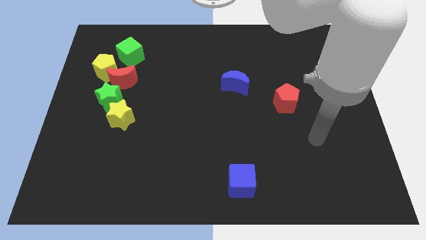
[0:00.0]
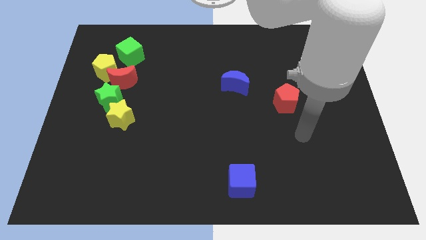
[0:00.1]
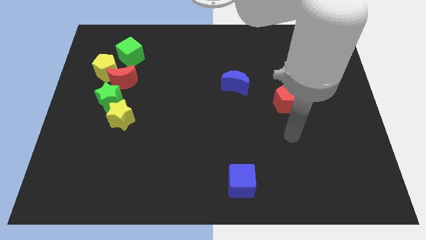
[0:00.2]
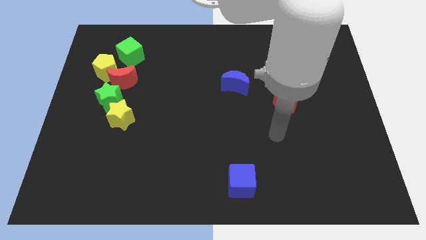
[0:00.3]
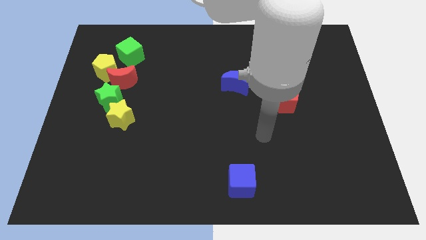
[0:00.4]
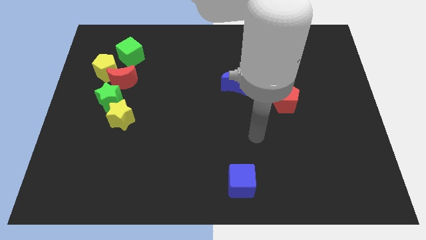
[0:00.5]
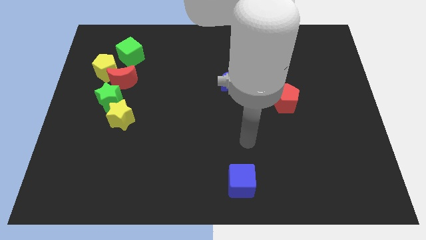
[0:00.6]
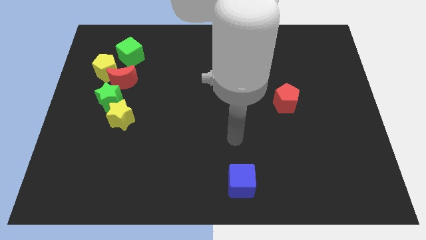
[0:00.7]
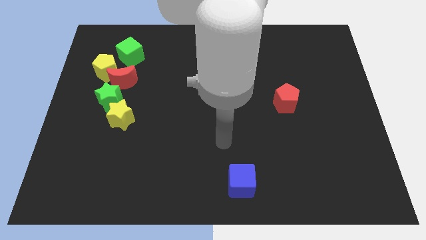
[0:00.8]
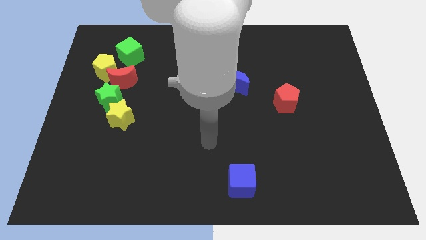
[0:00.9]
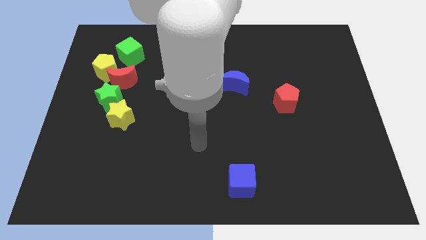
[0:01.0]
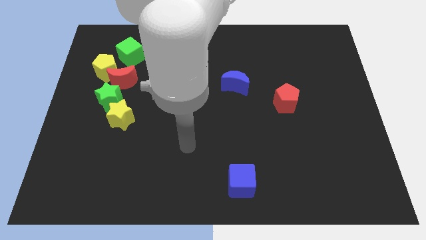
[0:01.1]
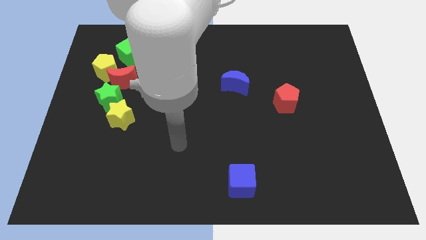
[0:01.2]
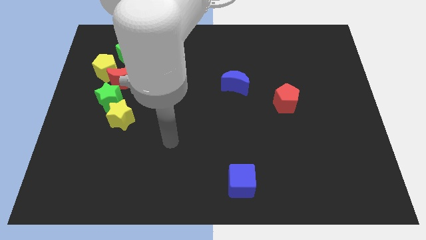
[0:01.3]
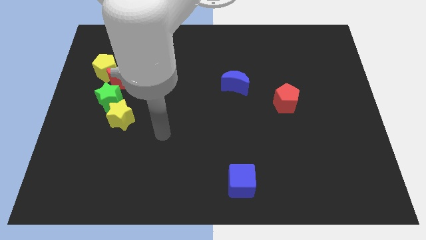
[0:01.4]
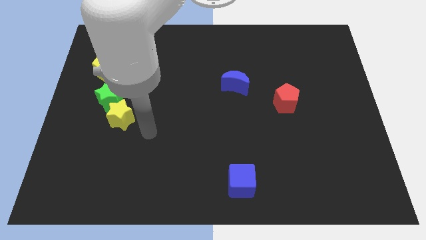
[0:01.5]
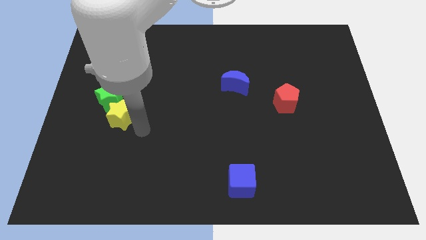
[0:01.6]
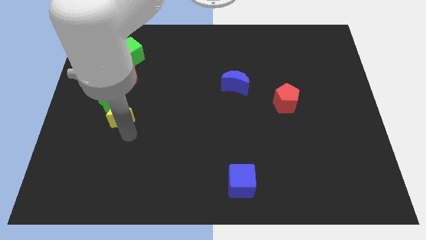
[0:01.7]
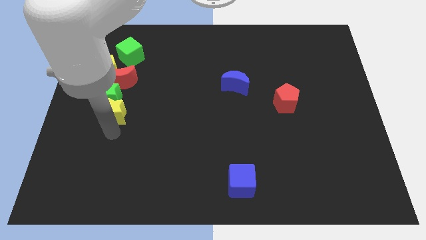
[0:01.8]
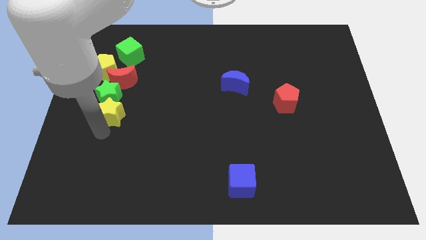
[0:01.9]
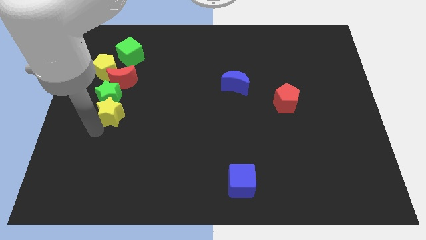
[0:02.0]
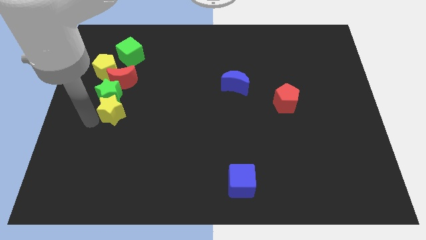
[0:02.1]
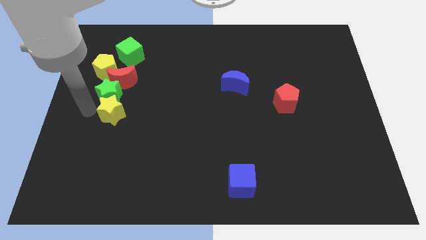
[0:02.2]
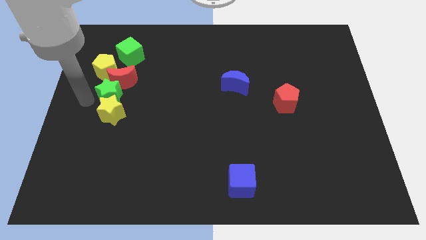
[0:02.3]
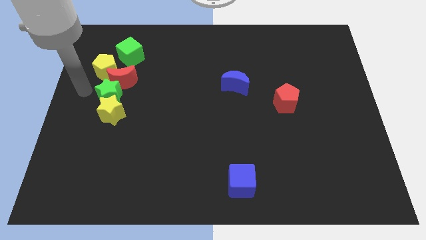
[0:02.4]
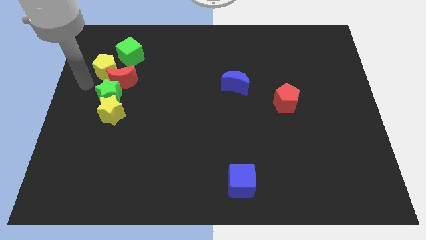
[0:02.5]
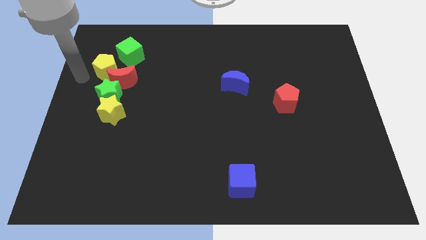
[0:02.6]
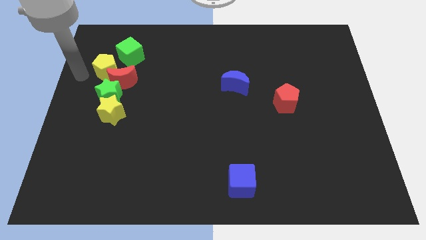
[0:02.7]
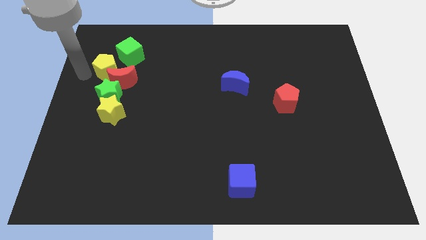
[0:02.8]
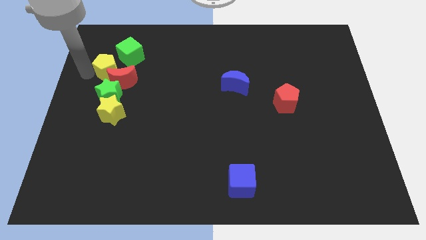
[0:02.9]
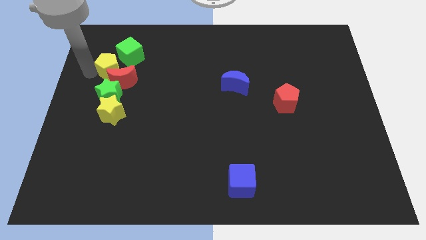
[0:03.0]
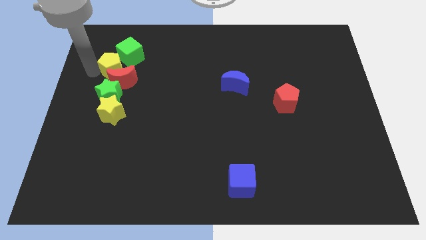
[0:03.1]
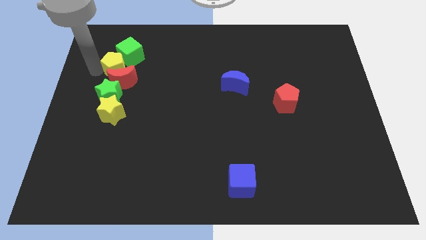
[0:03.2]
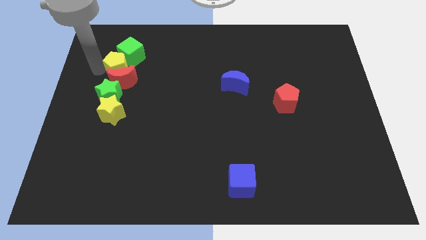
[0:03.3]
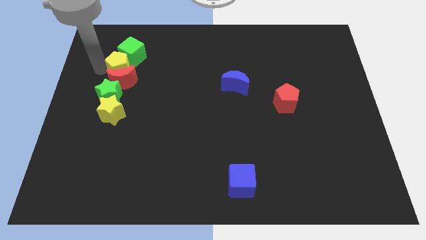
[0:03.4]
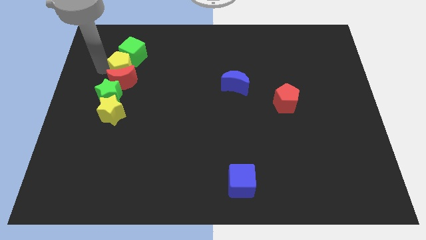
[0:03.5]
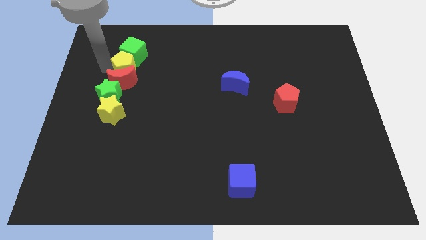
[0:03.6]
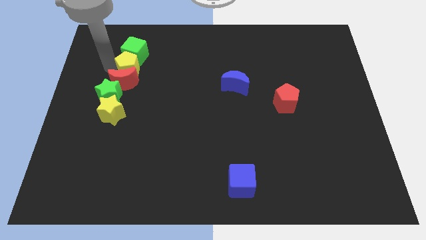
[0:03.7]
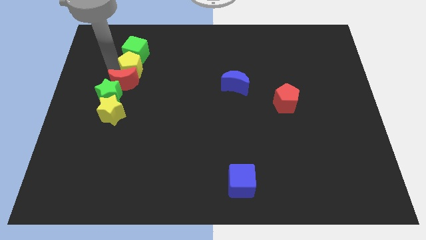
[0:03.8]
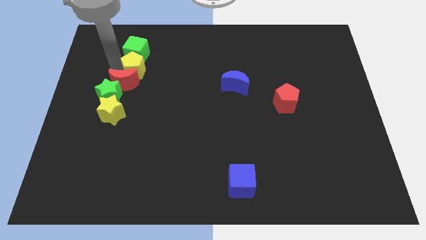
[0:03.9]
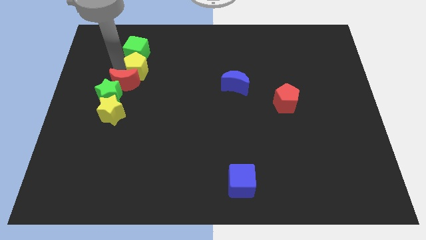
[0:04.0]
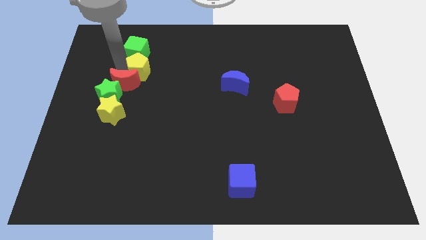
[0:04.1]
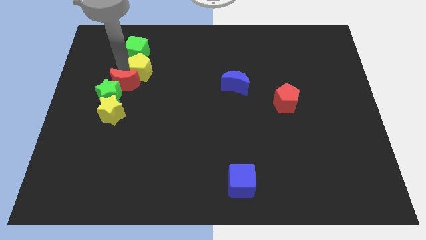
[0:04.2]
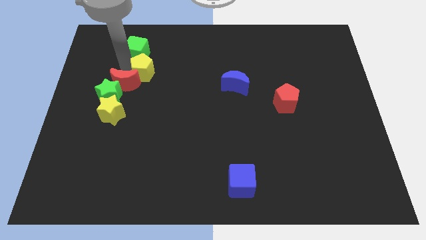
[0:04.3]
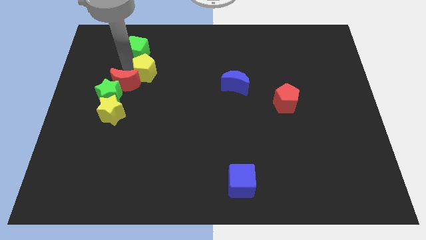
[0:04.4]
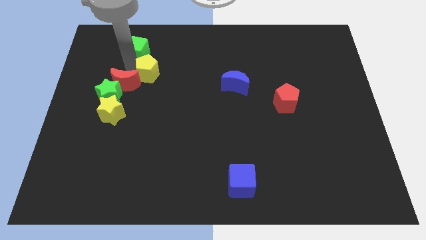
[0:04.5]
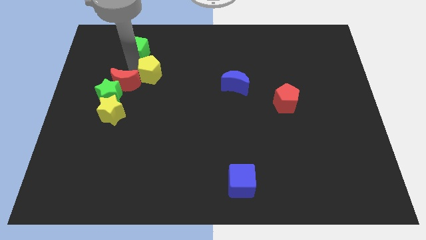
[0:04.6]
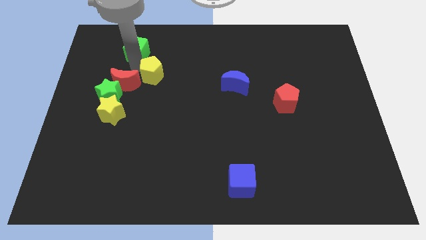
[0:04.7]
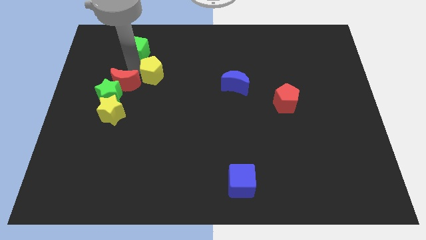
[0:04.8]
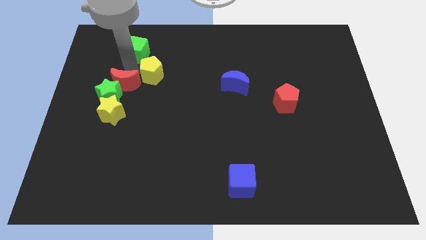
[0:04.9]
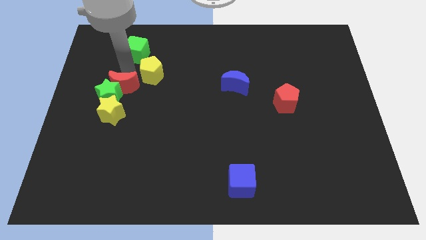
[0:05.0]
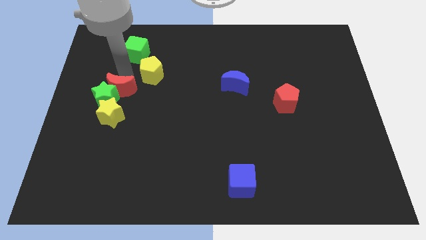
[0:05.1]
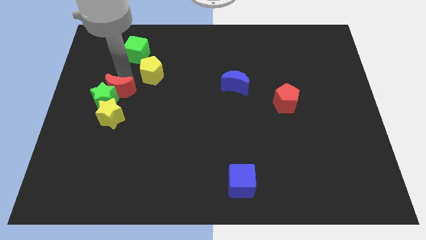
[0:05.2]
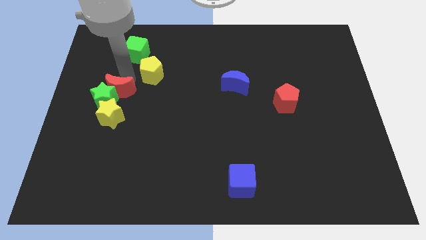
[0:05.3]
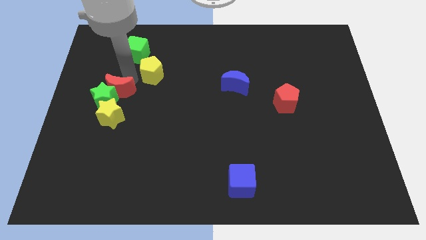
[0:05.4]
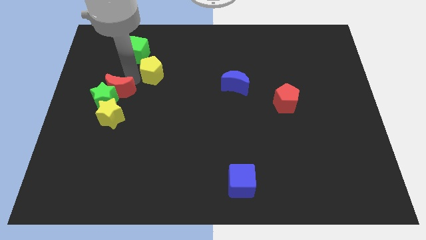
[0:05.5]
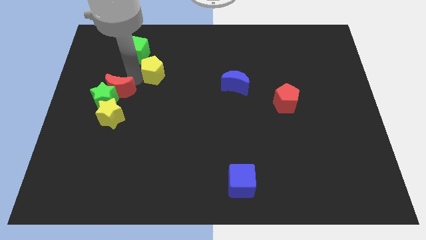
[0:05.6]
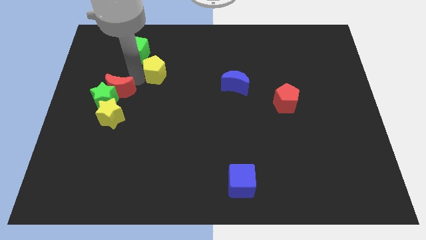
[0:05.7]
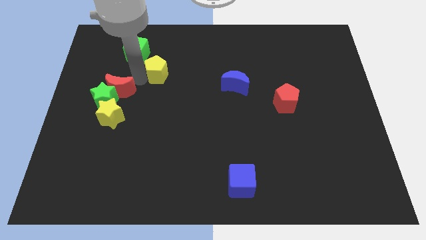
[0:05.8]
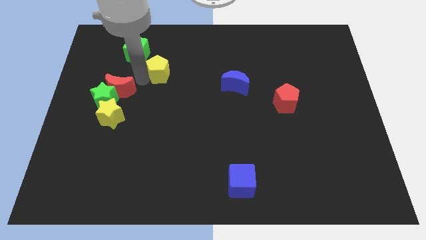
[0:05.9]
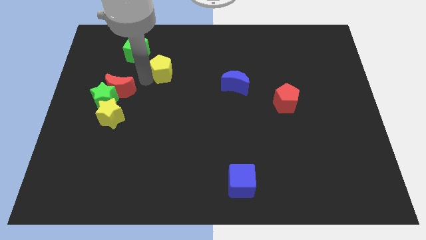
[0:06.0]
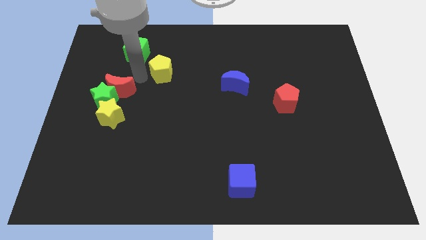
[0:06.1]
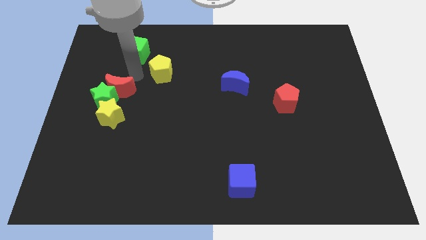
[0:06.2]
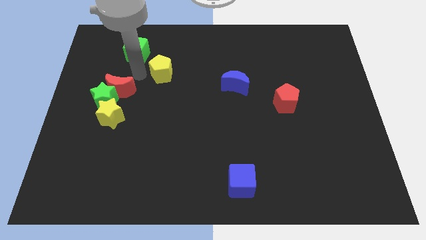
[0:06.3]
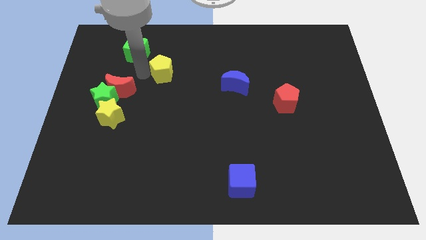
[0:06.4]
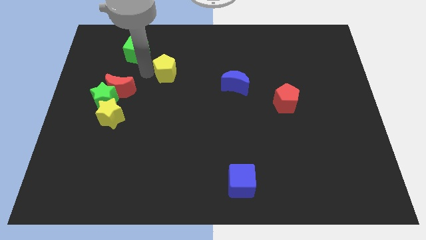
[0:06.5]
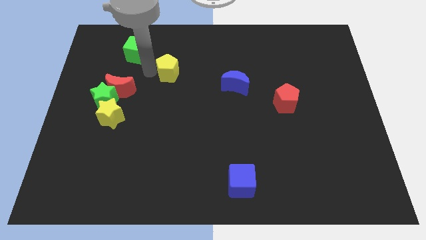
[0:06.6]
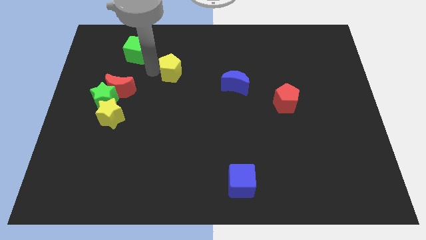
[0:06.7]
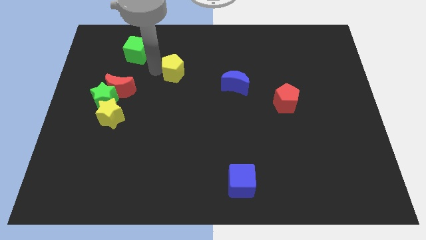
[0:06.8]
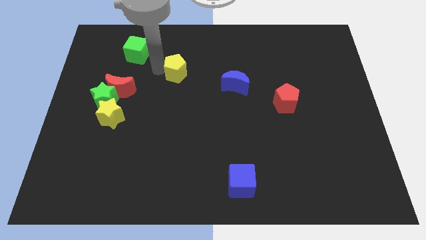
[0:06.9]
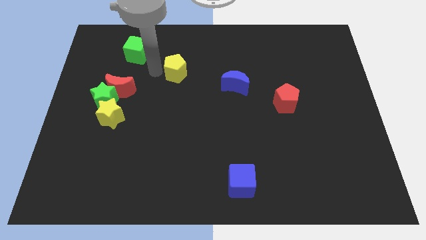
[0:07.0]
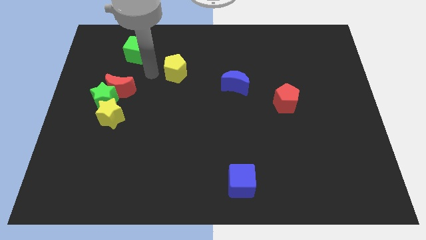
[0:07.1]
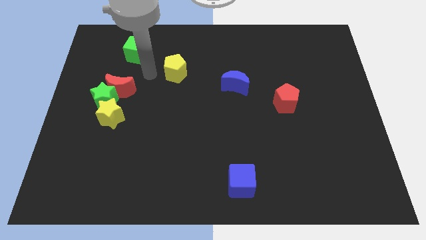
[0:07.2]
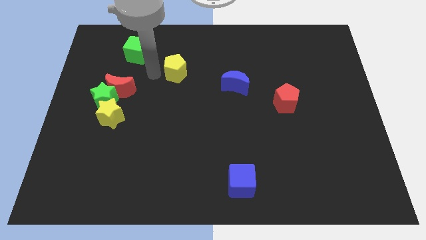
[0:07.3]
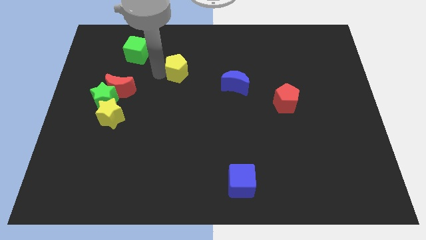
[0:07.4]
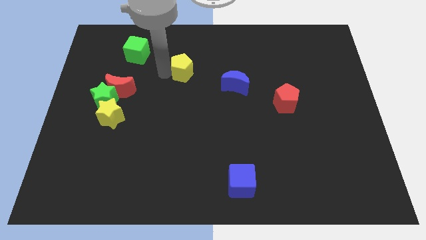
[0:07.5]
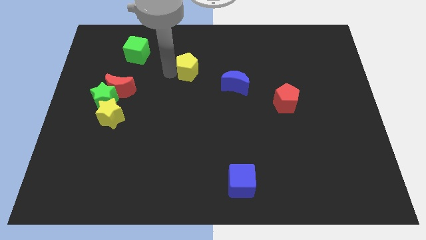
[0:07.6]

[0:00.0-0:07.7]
move the yellow pentagon to the right

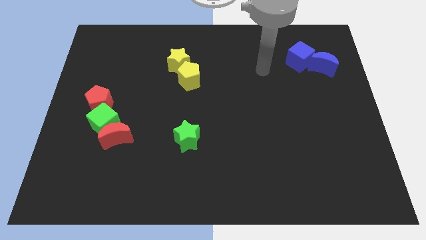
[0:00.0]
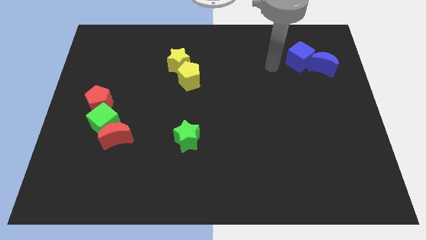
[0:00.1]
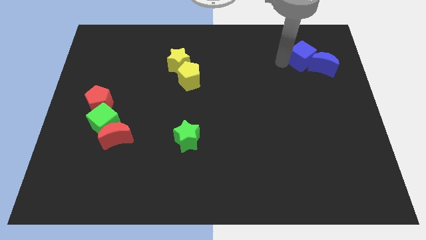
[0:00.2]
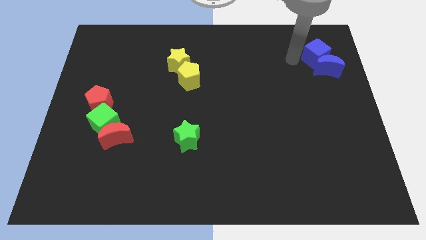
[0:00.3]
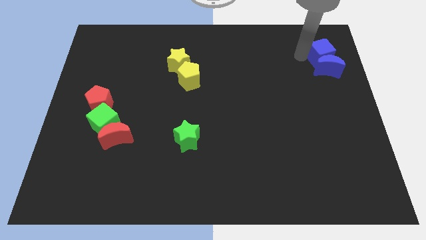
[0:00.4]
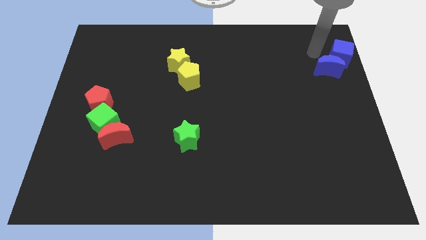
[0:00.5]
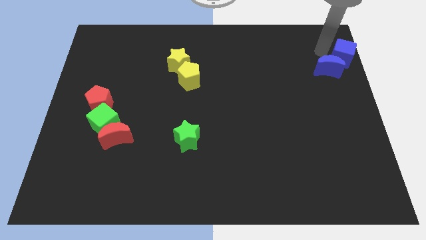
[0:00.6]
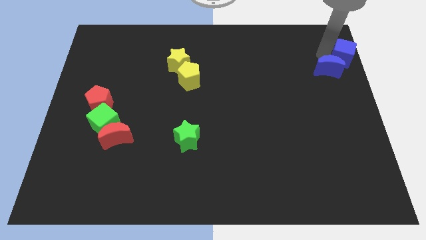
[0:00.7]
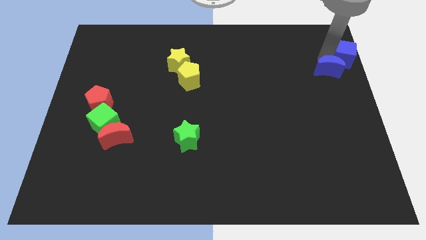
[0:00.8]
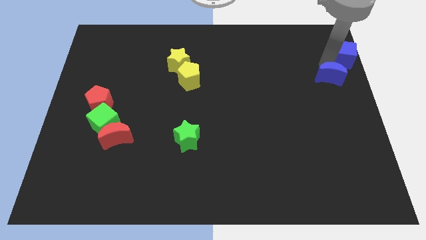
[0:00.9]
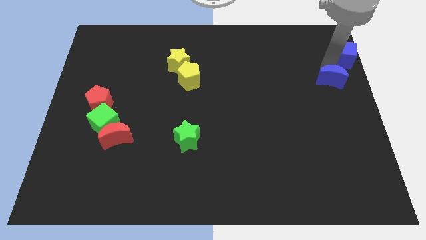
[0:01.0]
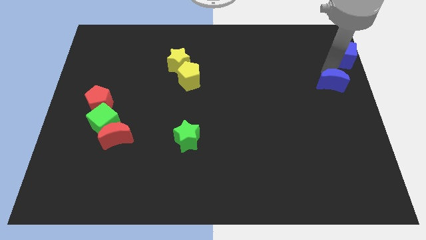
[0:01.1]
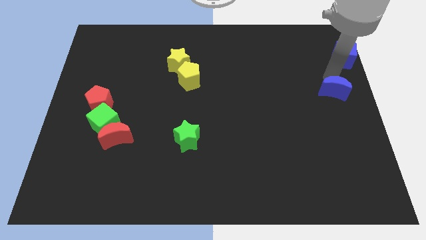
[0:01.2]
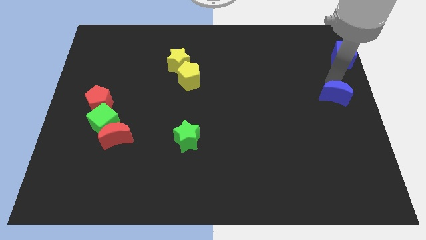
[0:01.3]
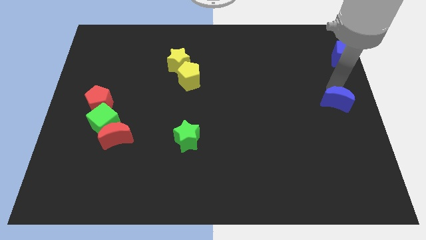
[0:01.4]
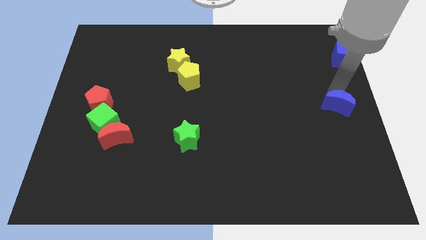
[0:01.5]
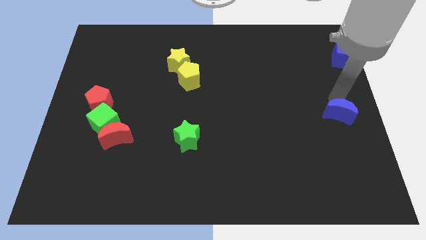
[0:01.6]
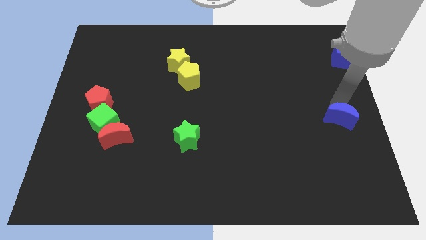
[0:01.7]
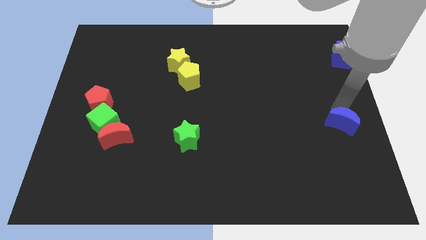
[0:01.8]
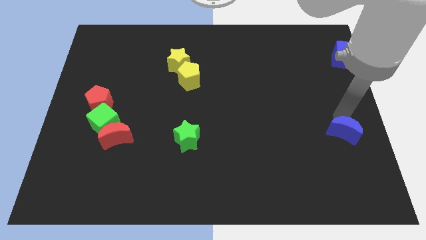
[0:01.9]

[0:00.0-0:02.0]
move the blue moon down
